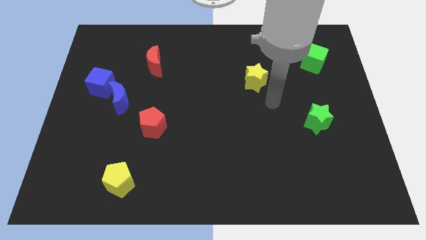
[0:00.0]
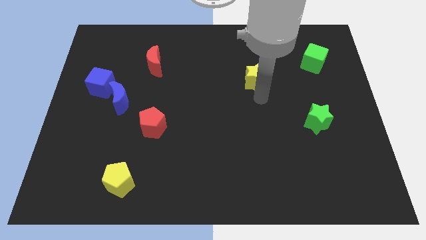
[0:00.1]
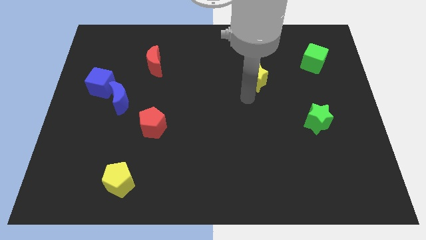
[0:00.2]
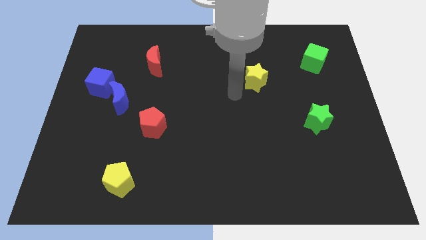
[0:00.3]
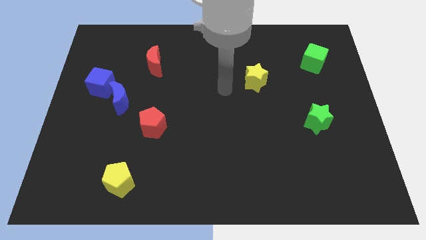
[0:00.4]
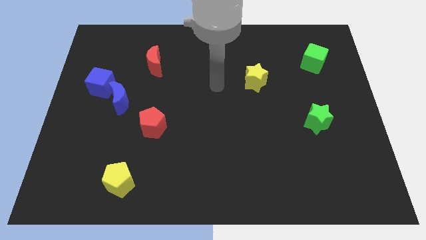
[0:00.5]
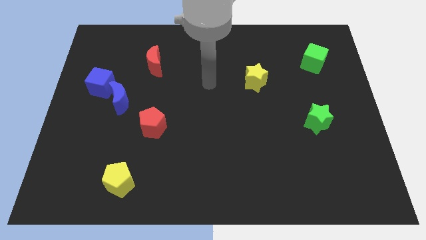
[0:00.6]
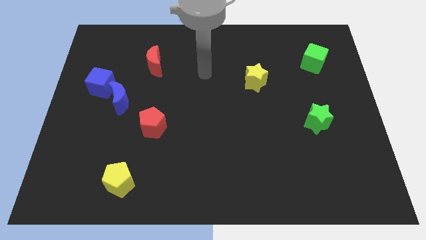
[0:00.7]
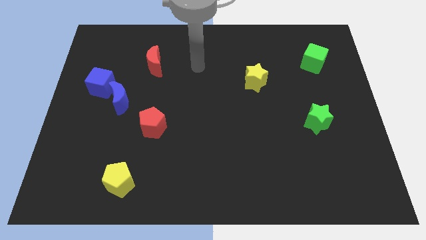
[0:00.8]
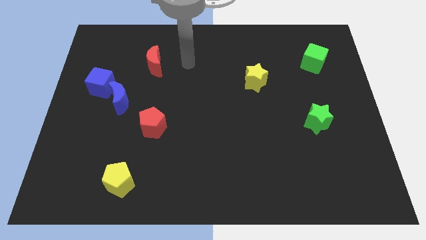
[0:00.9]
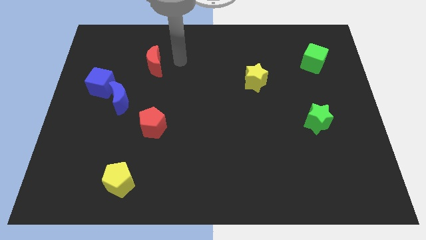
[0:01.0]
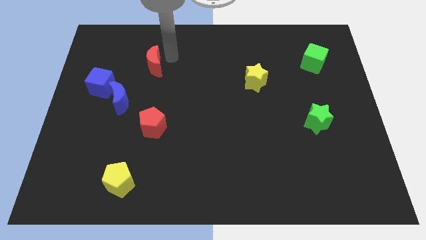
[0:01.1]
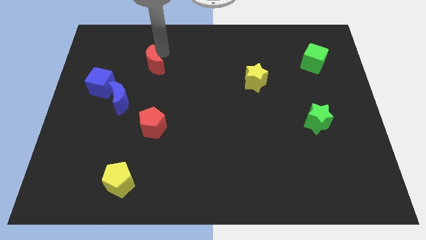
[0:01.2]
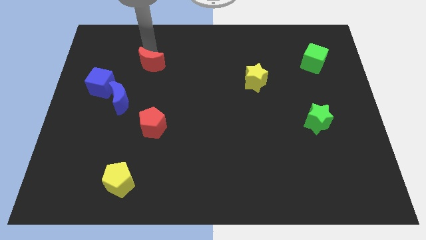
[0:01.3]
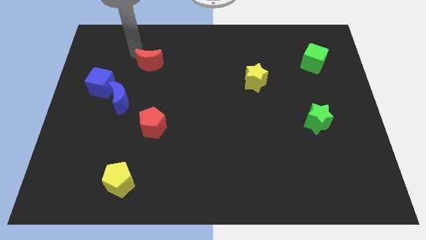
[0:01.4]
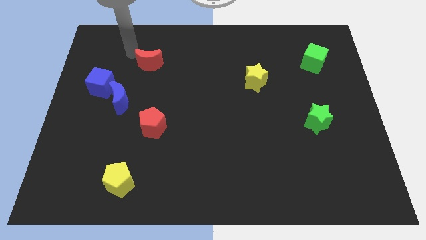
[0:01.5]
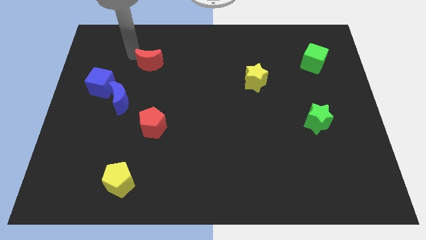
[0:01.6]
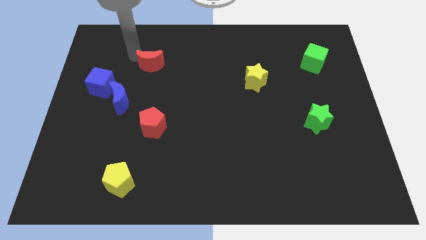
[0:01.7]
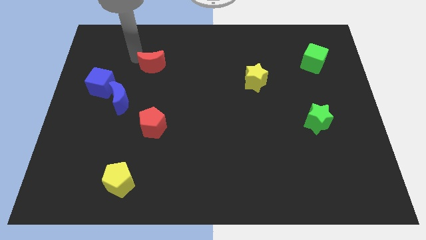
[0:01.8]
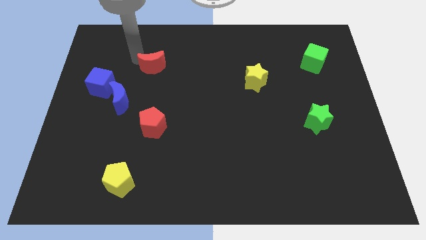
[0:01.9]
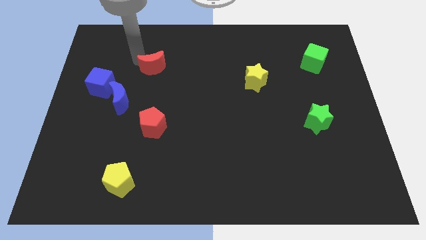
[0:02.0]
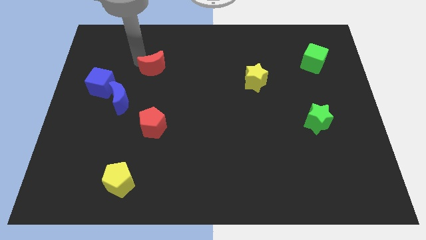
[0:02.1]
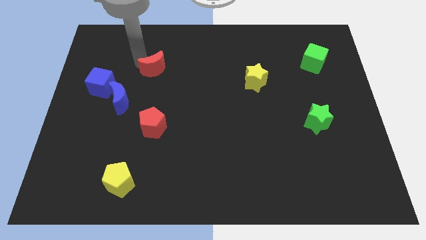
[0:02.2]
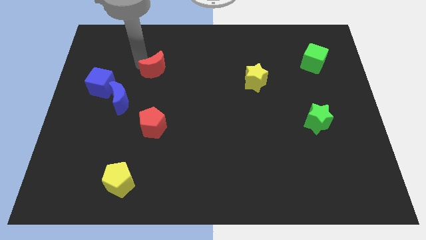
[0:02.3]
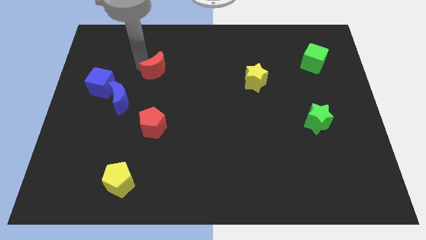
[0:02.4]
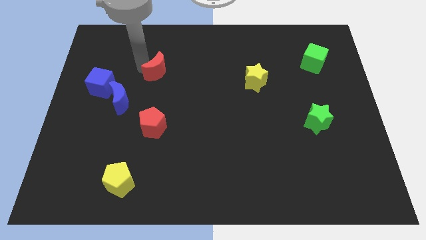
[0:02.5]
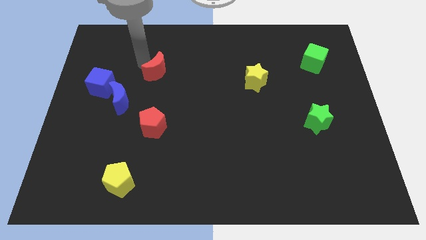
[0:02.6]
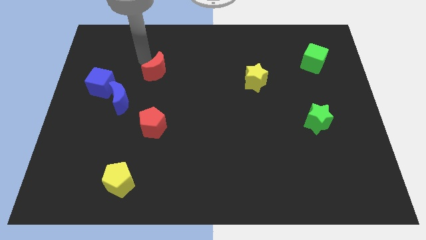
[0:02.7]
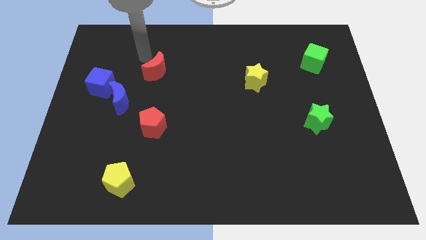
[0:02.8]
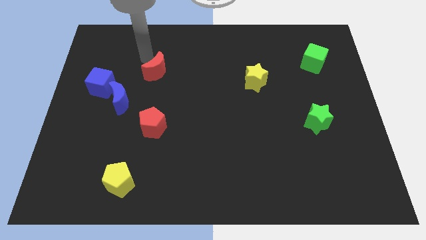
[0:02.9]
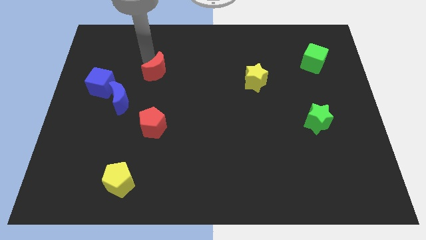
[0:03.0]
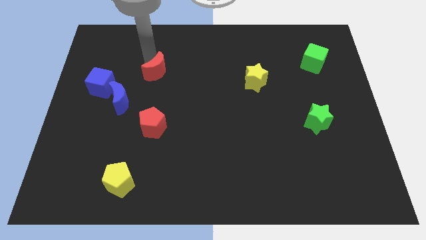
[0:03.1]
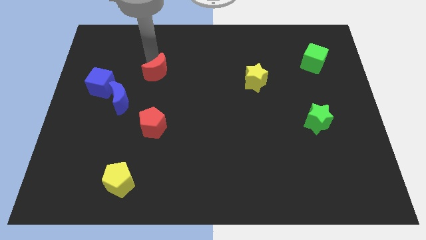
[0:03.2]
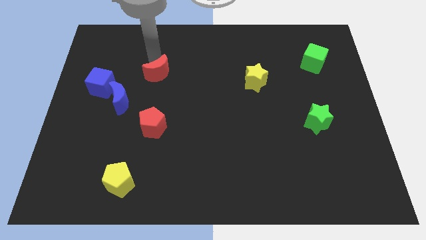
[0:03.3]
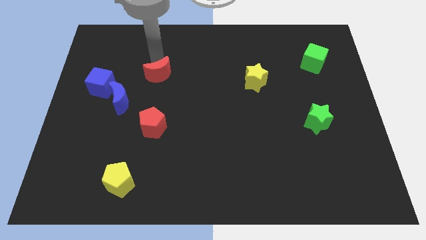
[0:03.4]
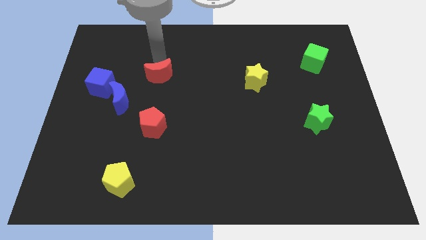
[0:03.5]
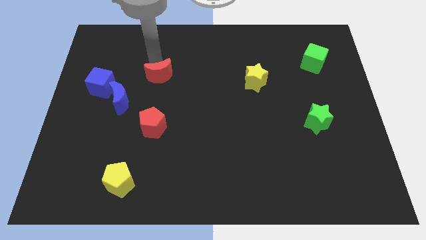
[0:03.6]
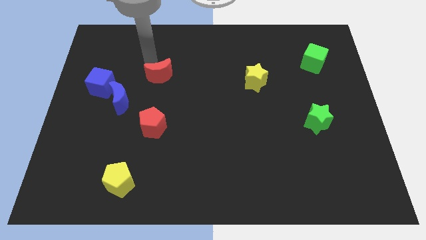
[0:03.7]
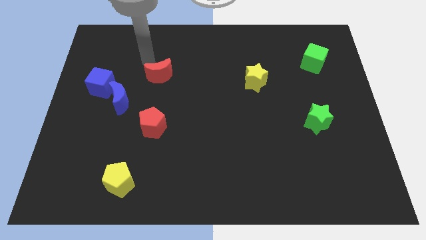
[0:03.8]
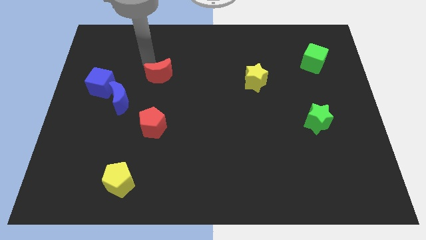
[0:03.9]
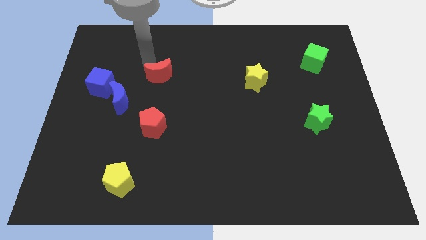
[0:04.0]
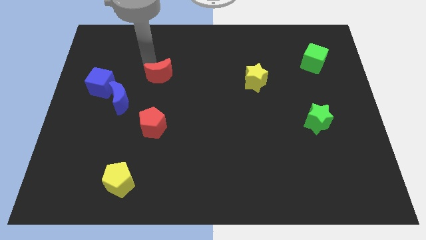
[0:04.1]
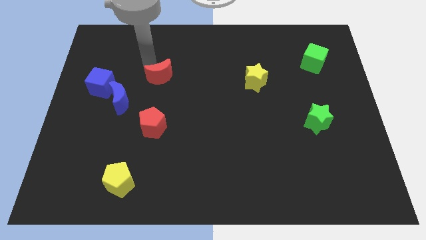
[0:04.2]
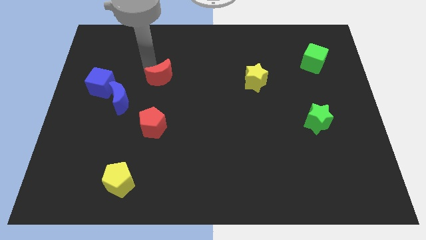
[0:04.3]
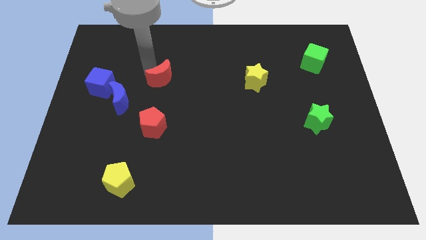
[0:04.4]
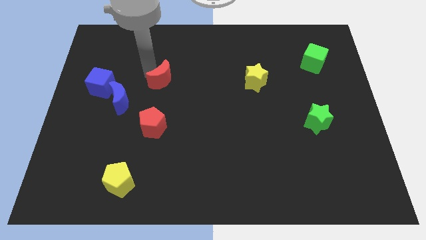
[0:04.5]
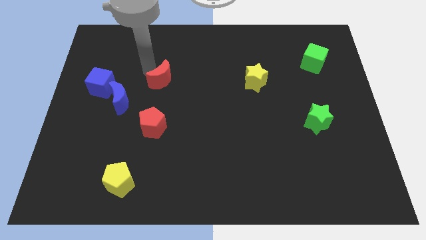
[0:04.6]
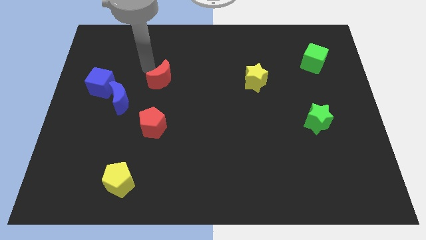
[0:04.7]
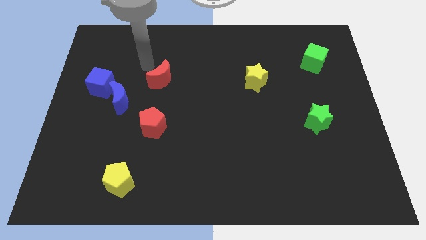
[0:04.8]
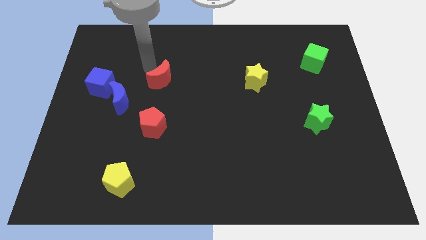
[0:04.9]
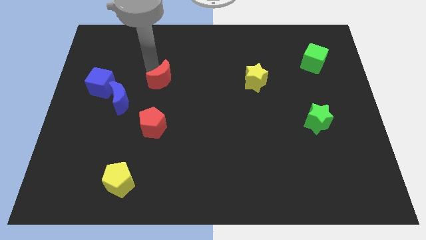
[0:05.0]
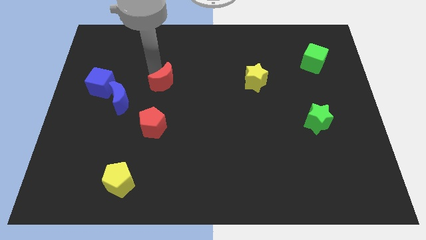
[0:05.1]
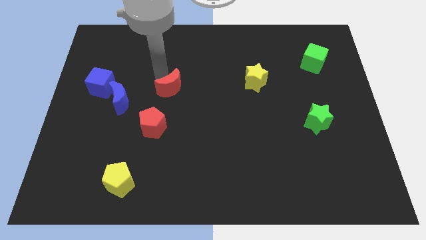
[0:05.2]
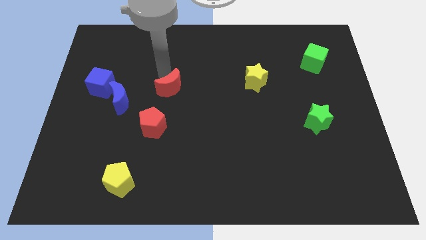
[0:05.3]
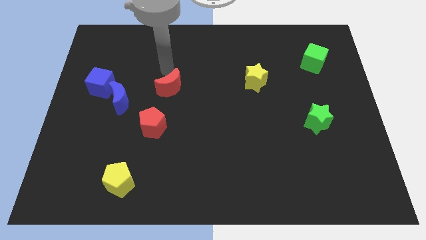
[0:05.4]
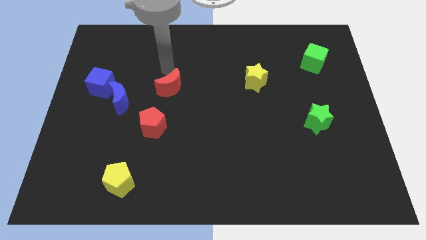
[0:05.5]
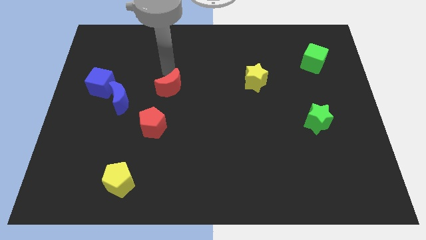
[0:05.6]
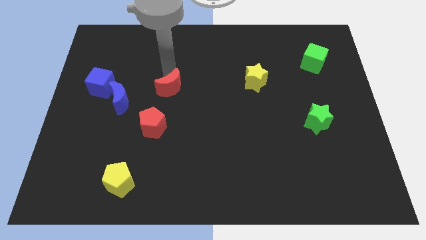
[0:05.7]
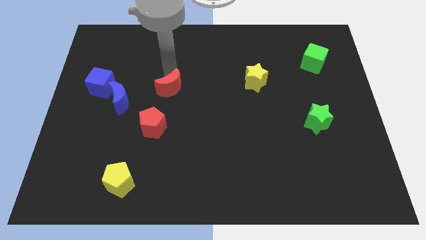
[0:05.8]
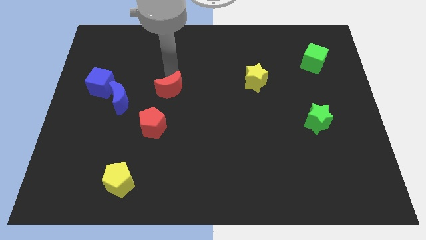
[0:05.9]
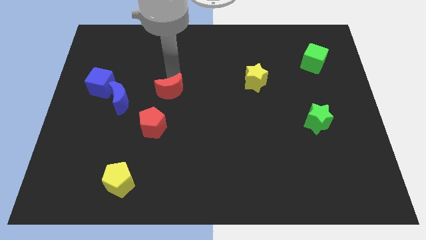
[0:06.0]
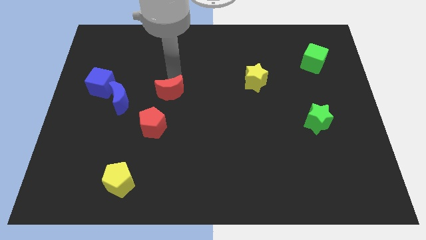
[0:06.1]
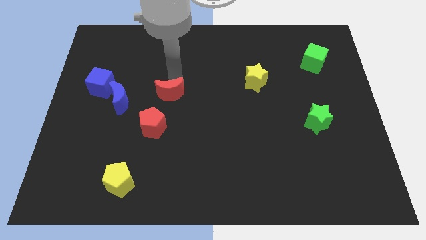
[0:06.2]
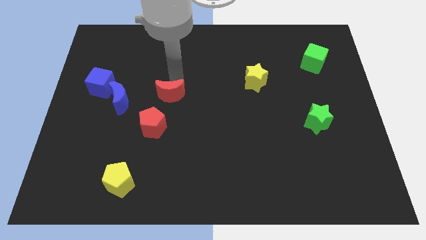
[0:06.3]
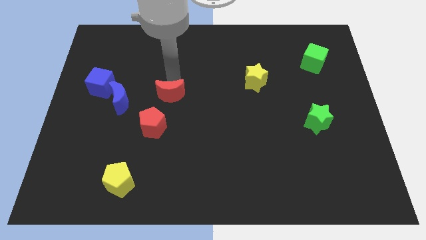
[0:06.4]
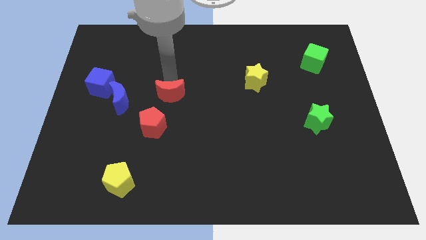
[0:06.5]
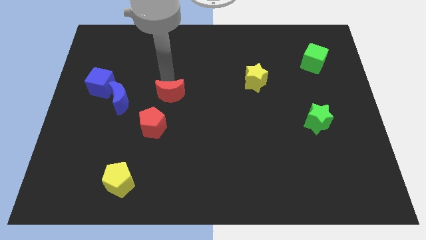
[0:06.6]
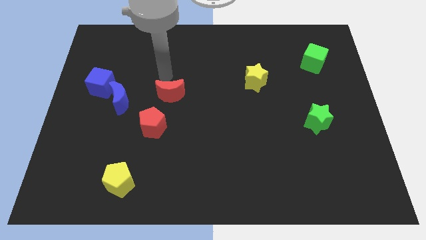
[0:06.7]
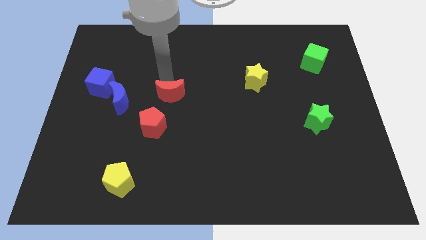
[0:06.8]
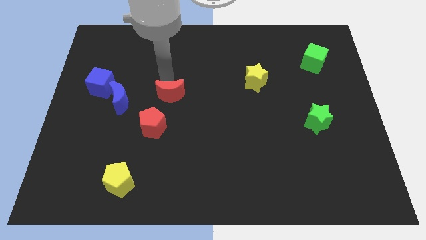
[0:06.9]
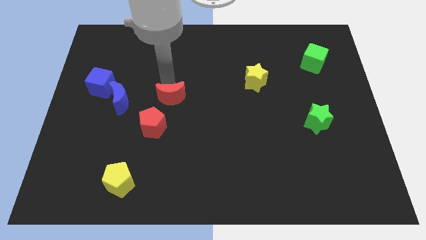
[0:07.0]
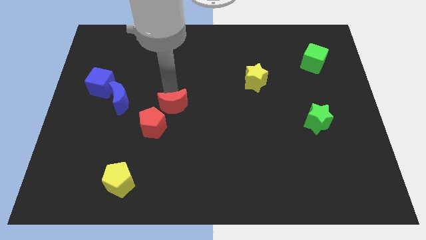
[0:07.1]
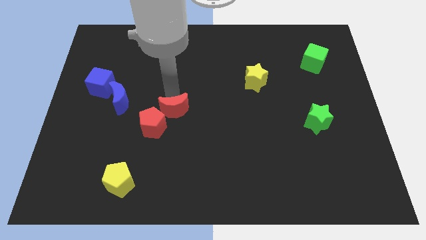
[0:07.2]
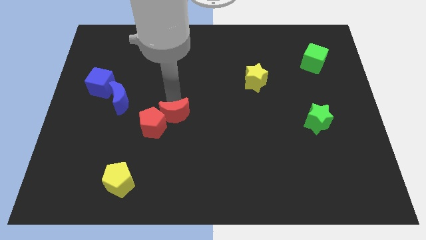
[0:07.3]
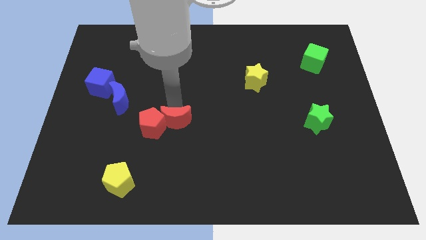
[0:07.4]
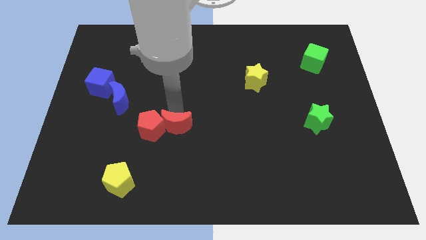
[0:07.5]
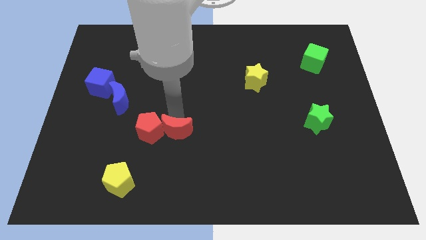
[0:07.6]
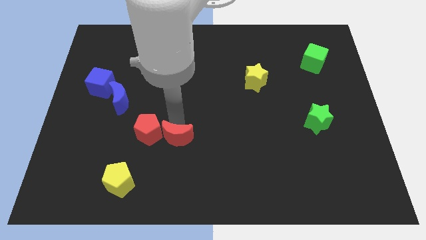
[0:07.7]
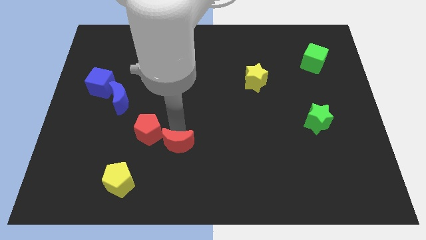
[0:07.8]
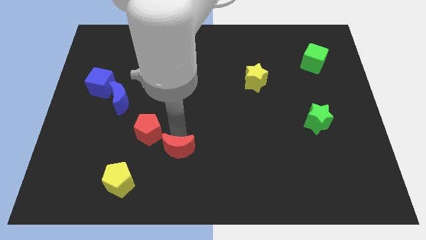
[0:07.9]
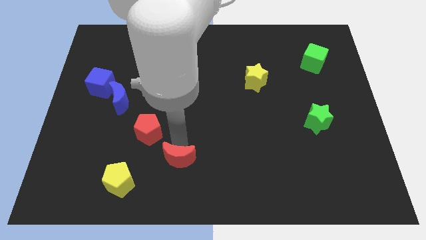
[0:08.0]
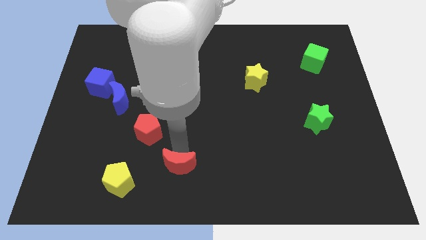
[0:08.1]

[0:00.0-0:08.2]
push the red moon to the right side of the yellow pentagon
